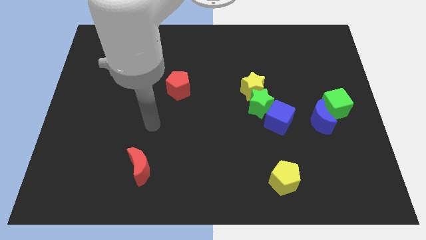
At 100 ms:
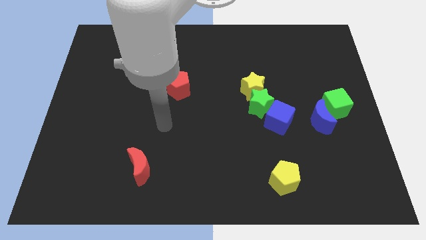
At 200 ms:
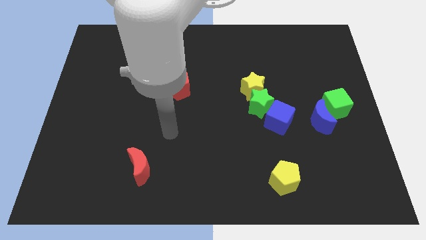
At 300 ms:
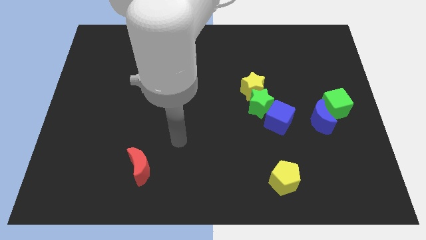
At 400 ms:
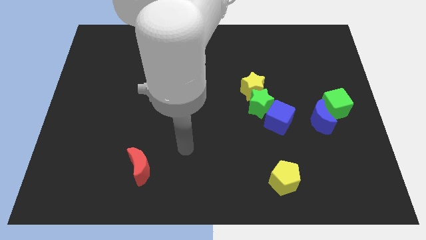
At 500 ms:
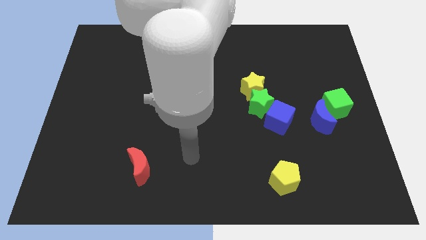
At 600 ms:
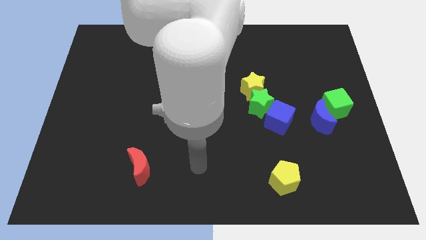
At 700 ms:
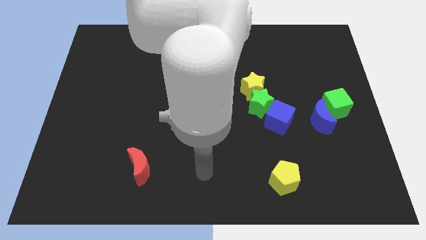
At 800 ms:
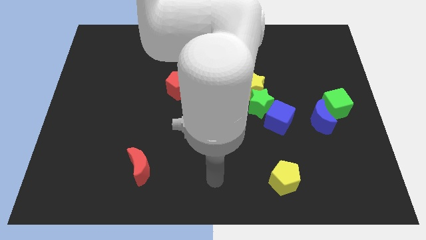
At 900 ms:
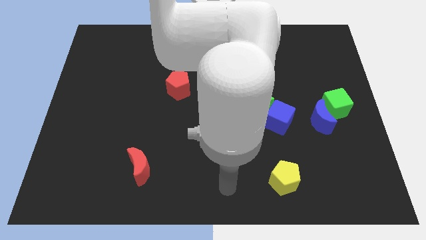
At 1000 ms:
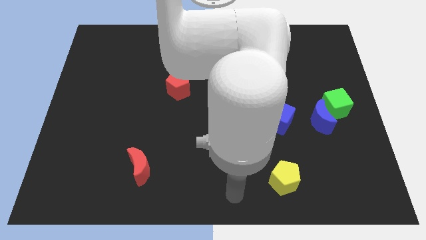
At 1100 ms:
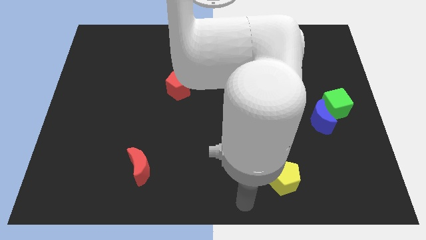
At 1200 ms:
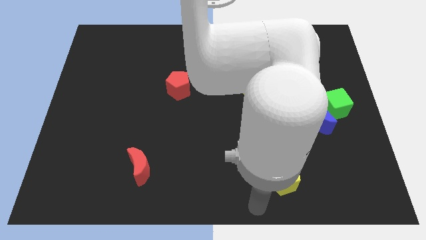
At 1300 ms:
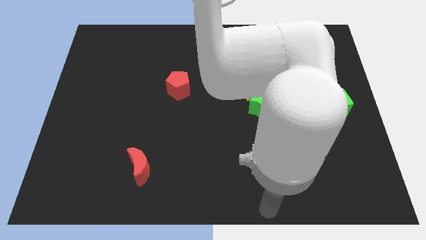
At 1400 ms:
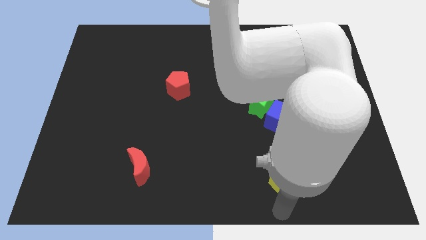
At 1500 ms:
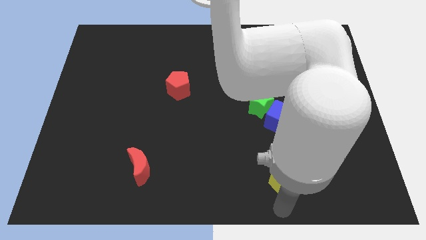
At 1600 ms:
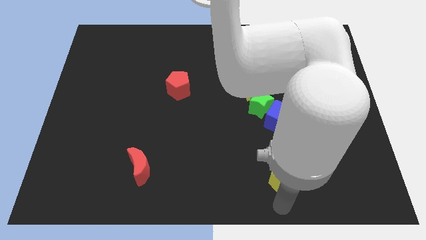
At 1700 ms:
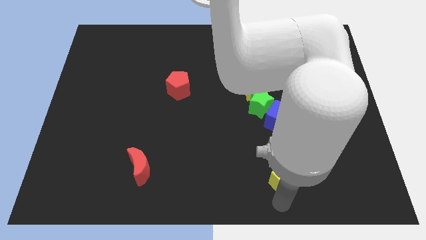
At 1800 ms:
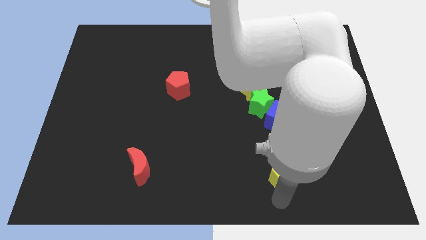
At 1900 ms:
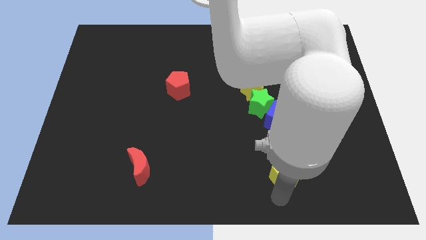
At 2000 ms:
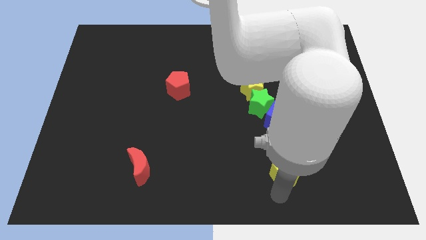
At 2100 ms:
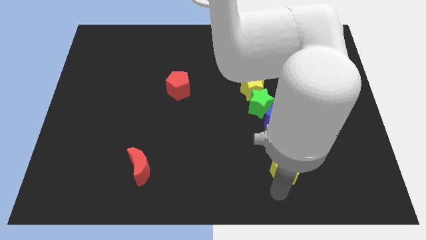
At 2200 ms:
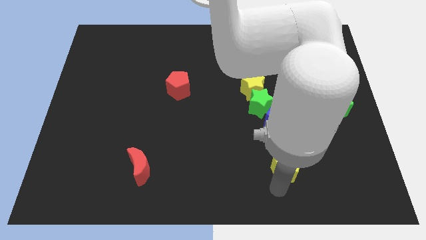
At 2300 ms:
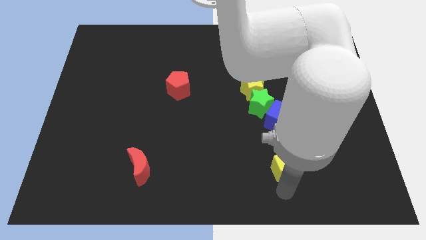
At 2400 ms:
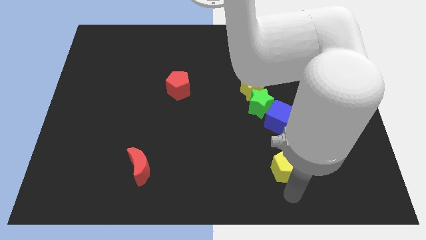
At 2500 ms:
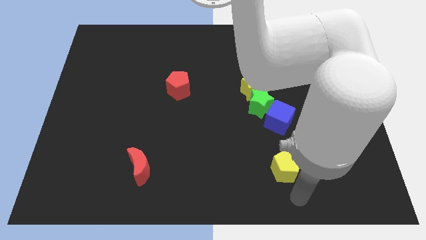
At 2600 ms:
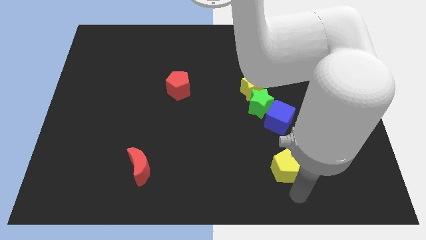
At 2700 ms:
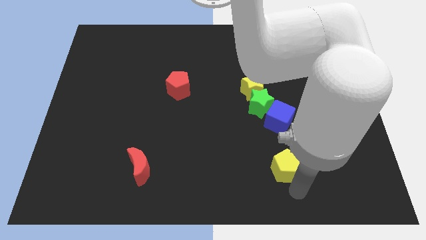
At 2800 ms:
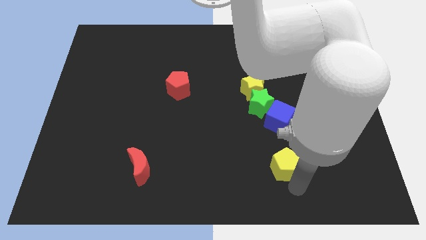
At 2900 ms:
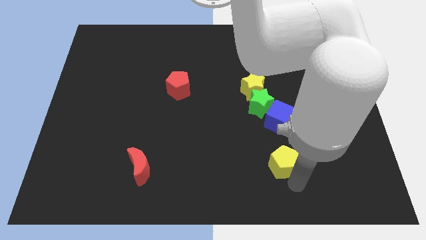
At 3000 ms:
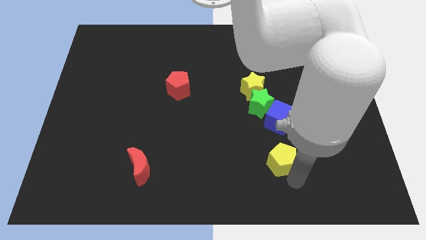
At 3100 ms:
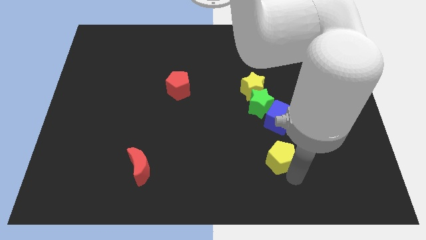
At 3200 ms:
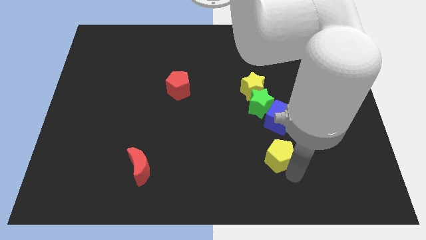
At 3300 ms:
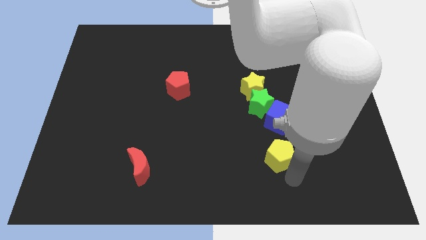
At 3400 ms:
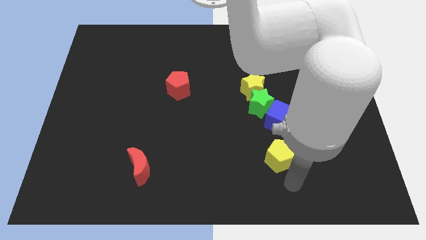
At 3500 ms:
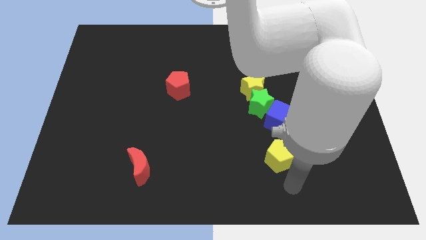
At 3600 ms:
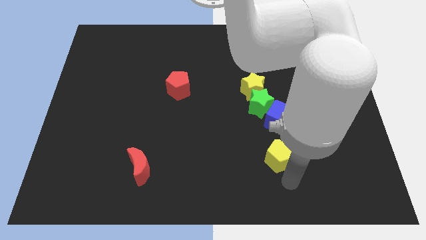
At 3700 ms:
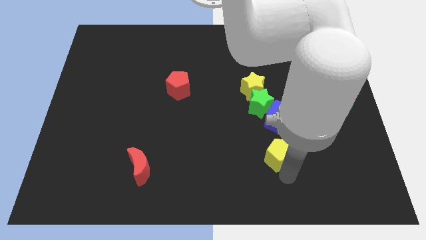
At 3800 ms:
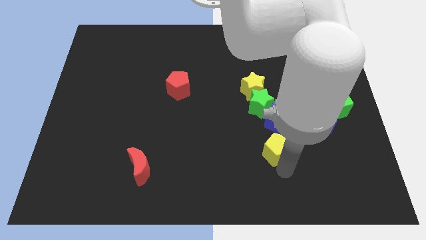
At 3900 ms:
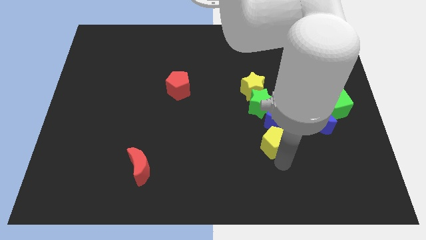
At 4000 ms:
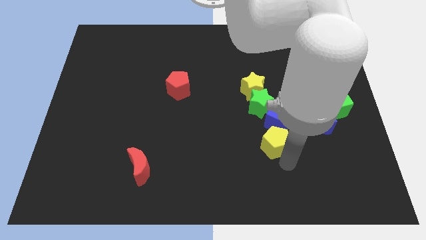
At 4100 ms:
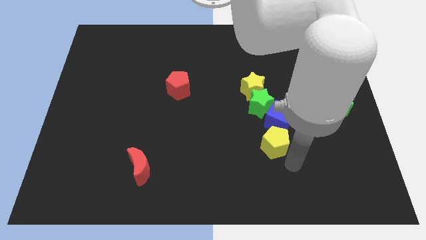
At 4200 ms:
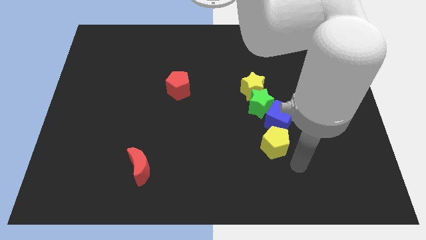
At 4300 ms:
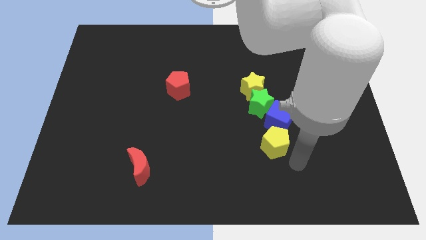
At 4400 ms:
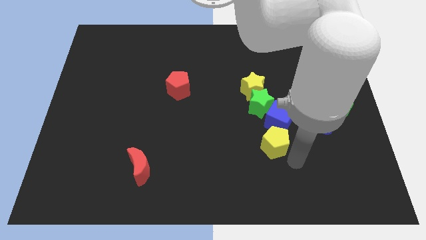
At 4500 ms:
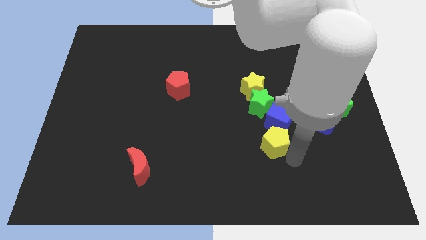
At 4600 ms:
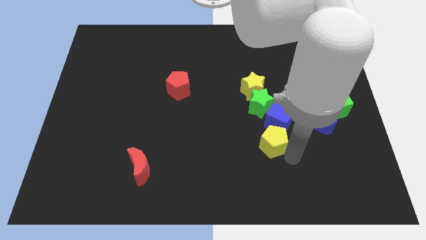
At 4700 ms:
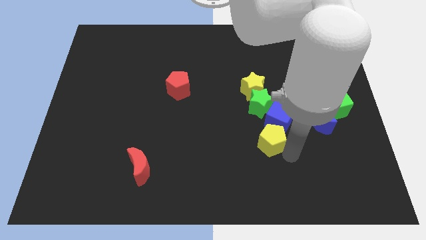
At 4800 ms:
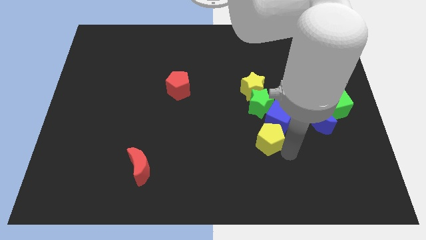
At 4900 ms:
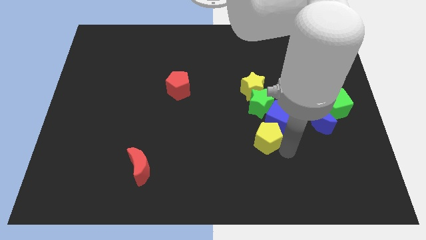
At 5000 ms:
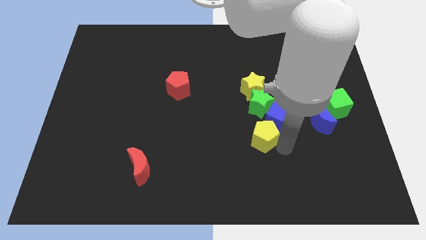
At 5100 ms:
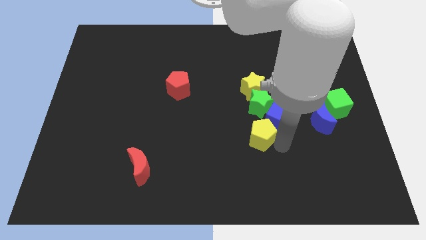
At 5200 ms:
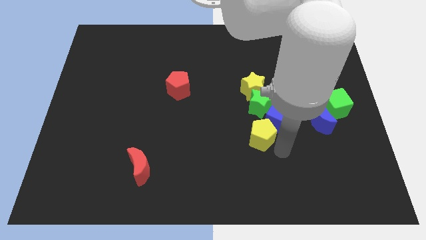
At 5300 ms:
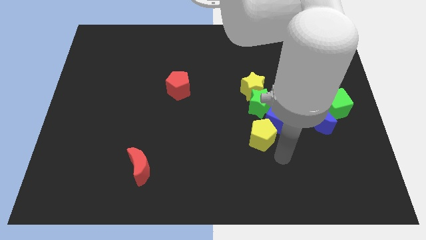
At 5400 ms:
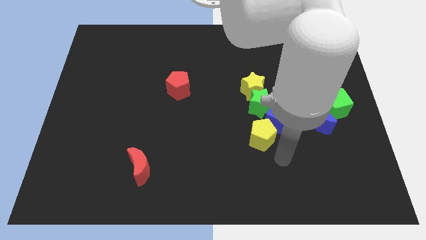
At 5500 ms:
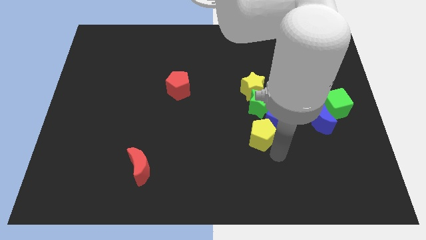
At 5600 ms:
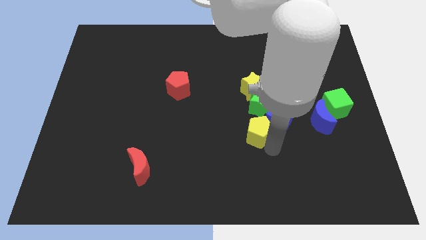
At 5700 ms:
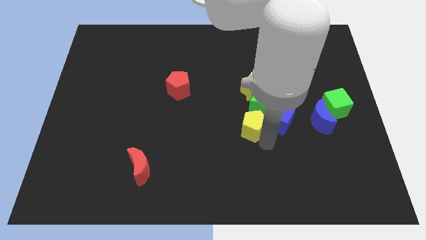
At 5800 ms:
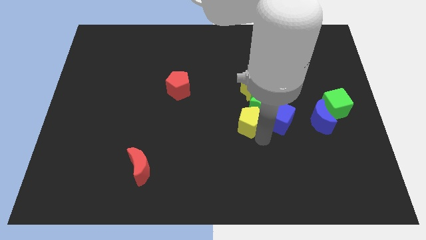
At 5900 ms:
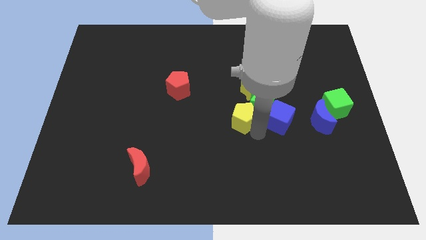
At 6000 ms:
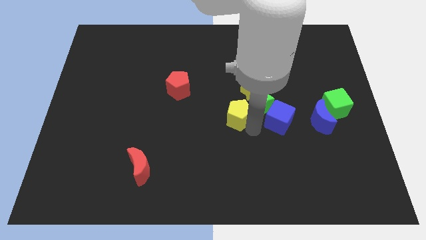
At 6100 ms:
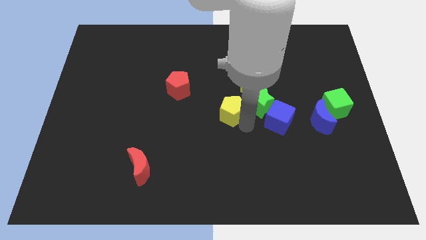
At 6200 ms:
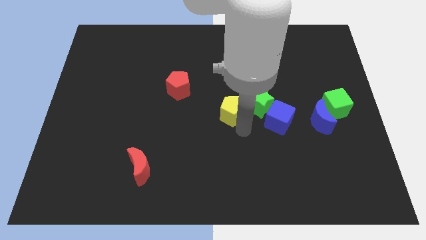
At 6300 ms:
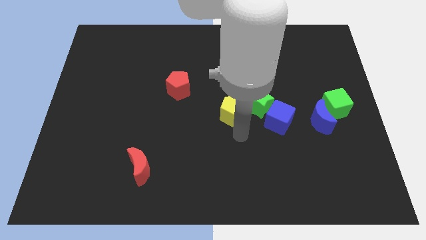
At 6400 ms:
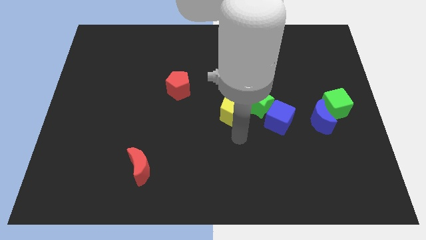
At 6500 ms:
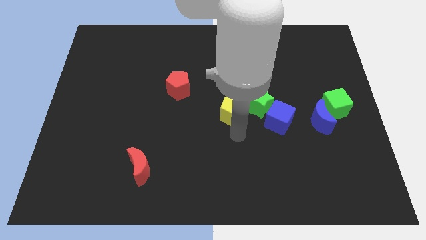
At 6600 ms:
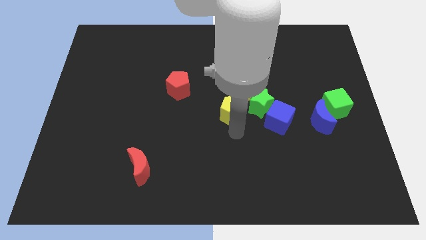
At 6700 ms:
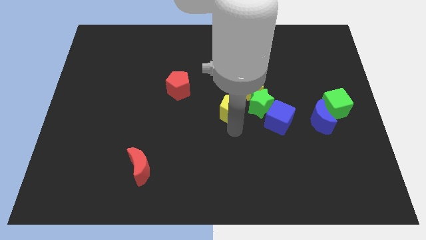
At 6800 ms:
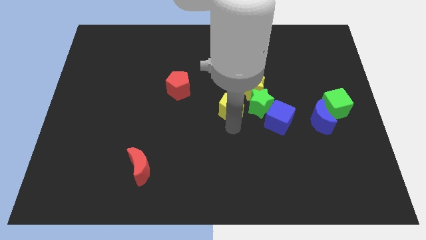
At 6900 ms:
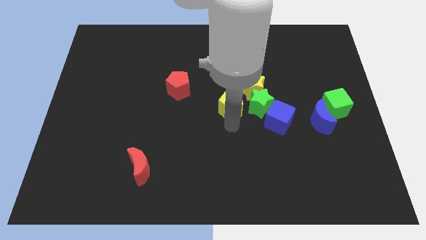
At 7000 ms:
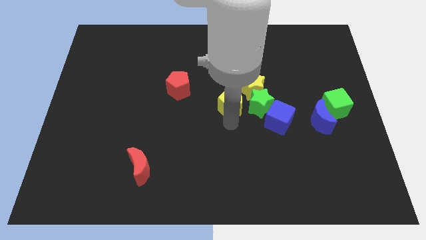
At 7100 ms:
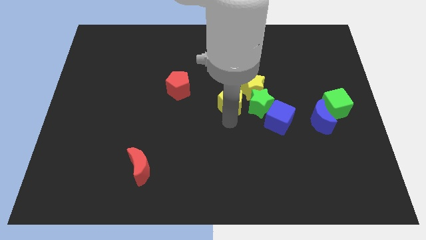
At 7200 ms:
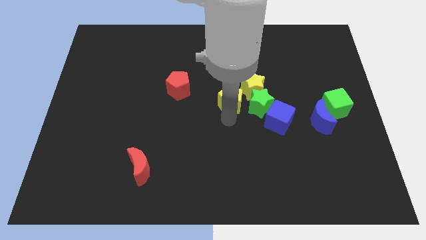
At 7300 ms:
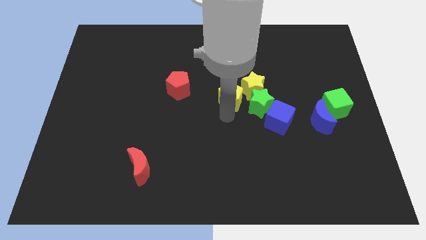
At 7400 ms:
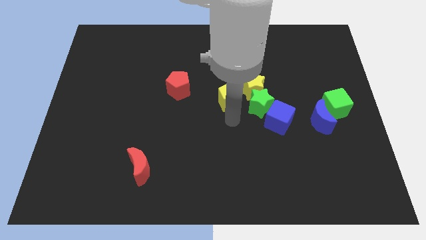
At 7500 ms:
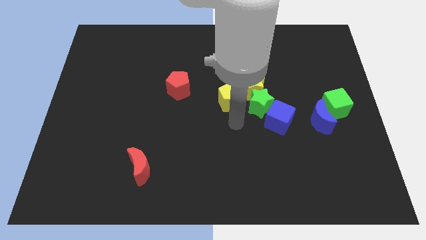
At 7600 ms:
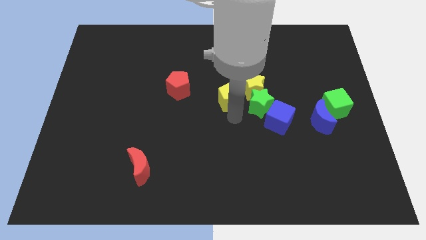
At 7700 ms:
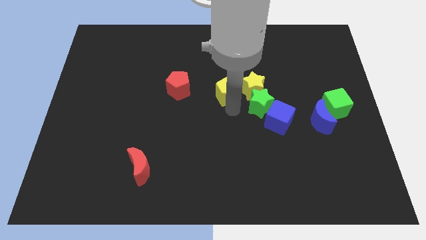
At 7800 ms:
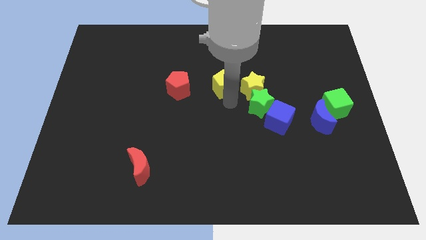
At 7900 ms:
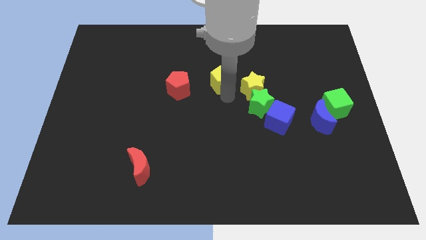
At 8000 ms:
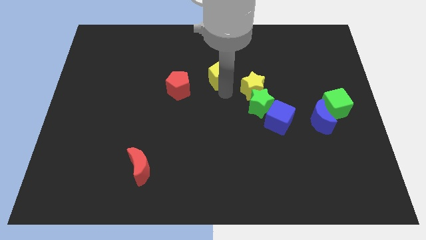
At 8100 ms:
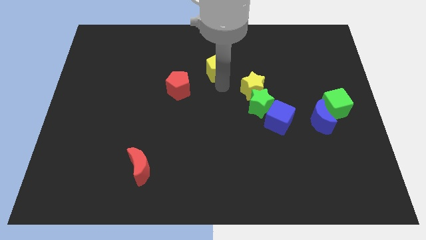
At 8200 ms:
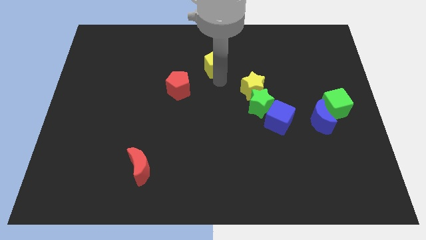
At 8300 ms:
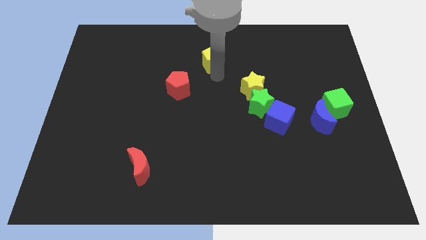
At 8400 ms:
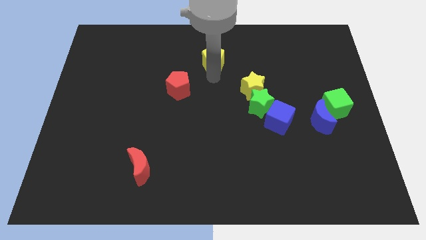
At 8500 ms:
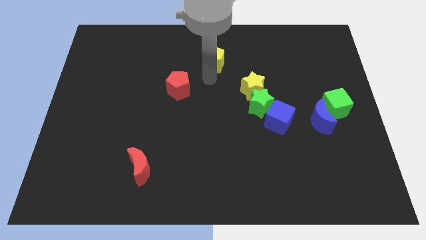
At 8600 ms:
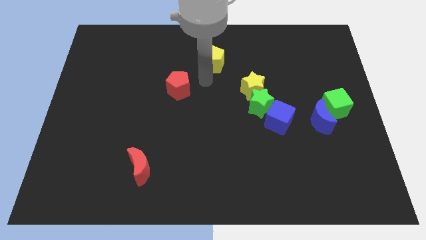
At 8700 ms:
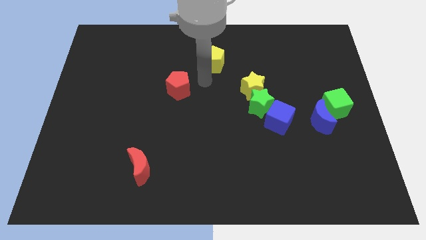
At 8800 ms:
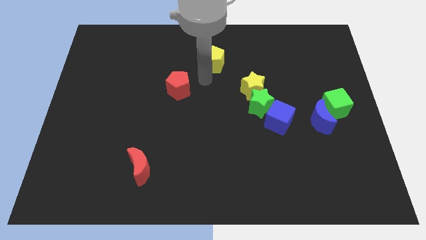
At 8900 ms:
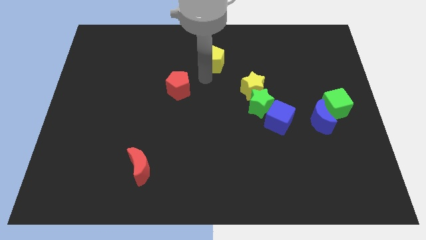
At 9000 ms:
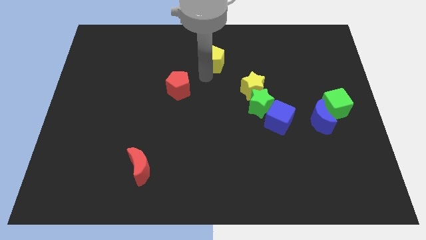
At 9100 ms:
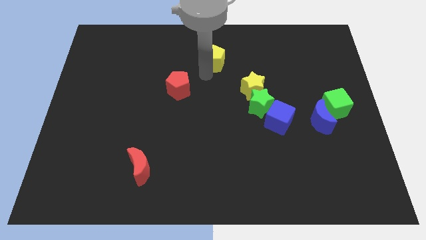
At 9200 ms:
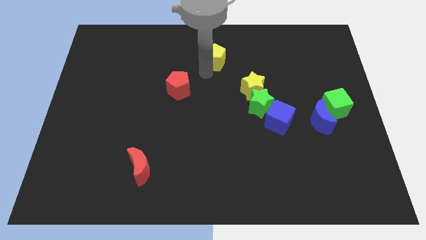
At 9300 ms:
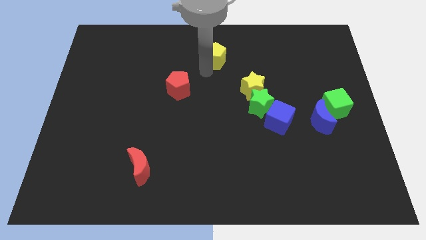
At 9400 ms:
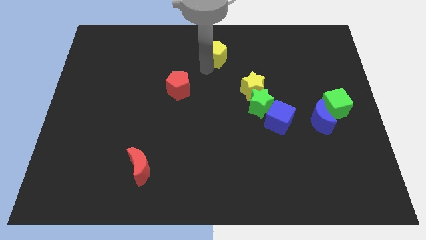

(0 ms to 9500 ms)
put the yellow pentagon to the top side
